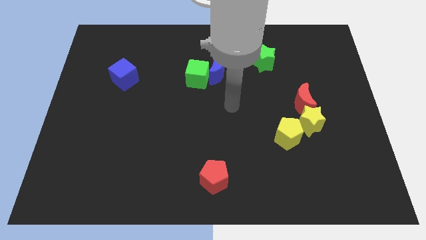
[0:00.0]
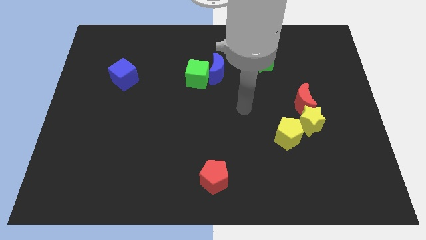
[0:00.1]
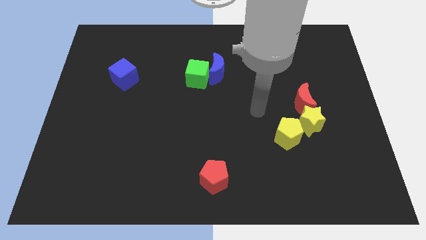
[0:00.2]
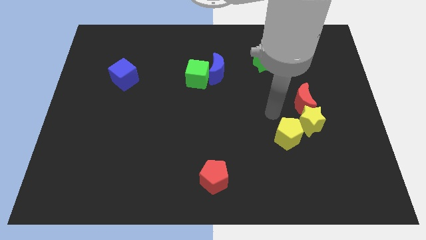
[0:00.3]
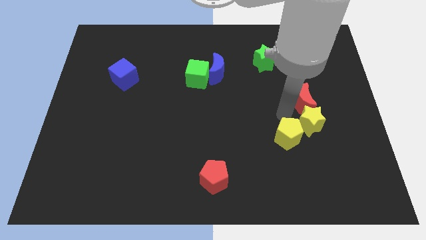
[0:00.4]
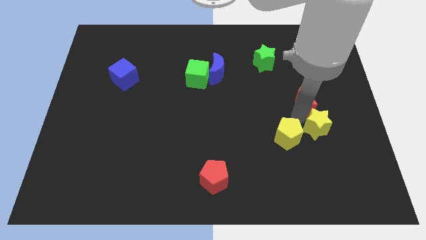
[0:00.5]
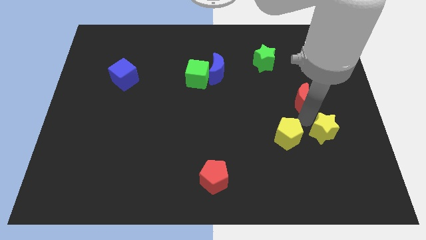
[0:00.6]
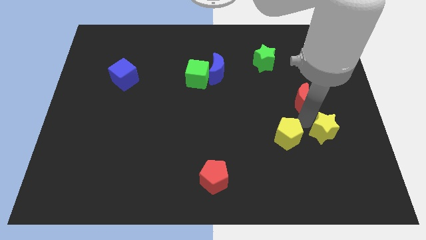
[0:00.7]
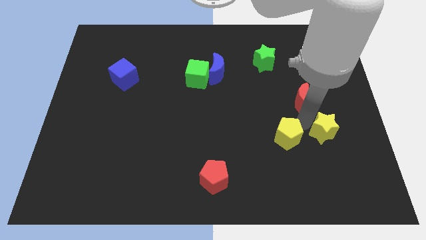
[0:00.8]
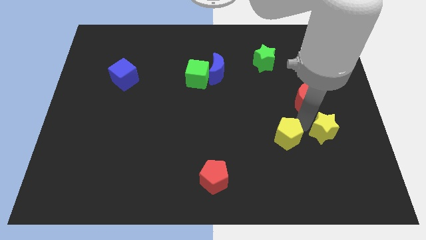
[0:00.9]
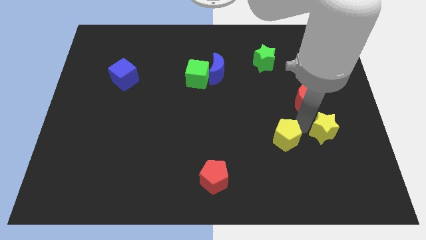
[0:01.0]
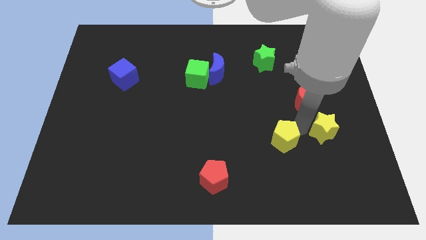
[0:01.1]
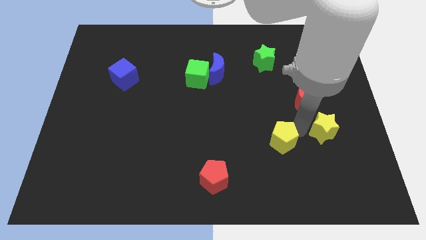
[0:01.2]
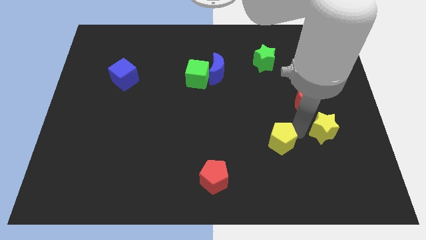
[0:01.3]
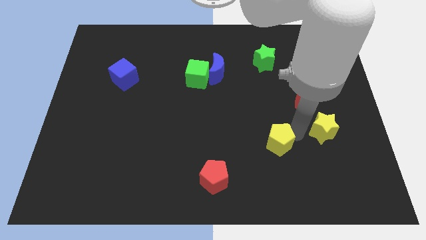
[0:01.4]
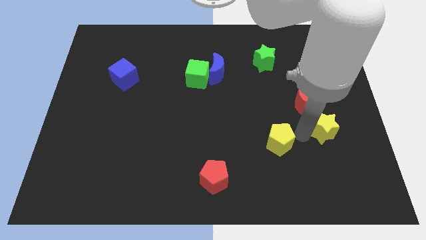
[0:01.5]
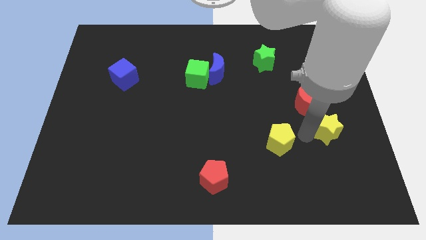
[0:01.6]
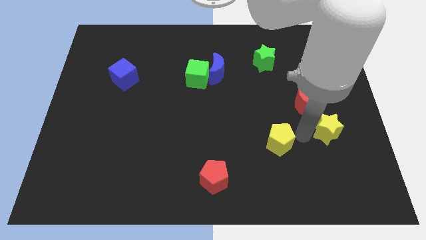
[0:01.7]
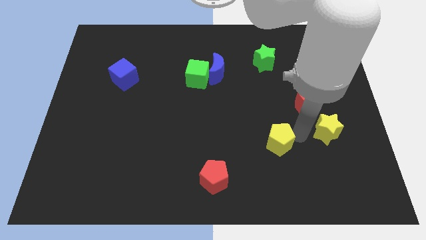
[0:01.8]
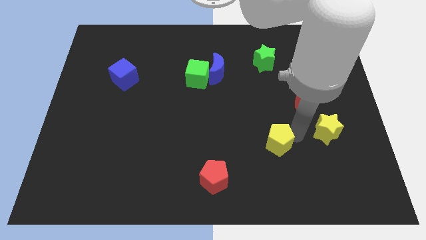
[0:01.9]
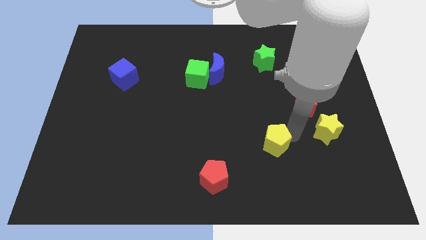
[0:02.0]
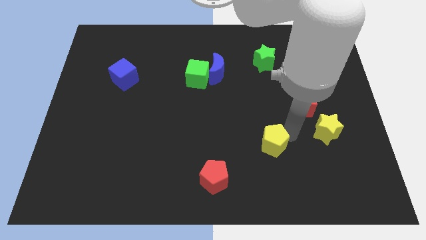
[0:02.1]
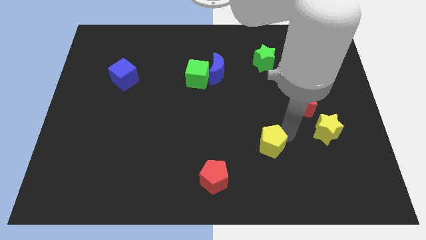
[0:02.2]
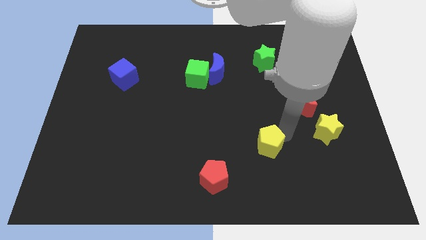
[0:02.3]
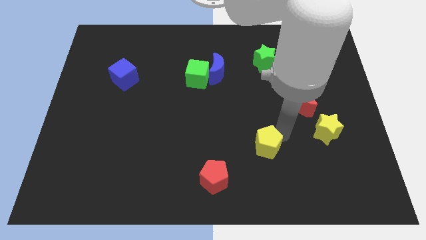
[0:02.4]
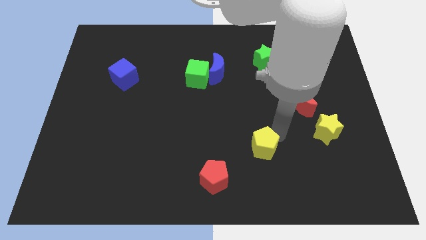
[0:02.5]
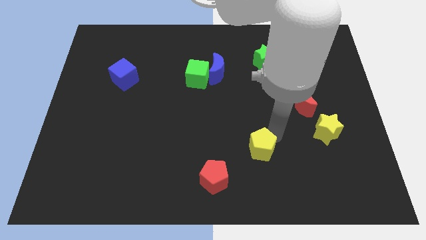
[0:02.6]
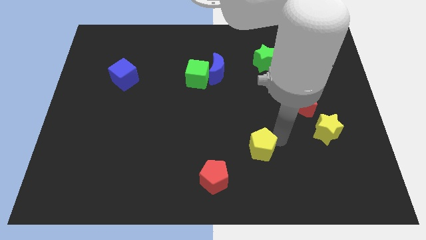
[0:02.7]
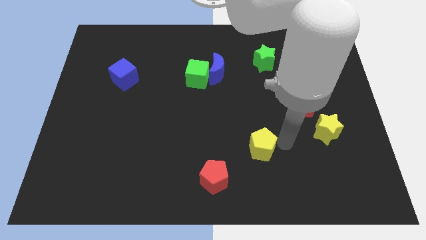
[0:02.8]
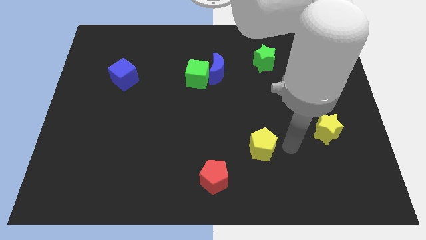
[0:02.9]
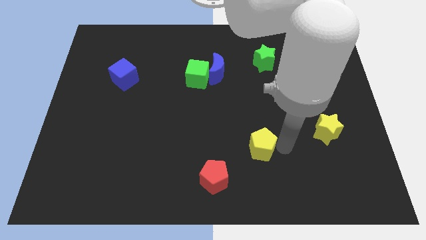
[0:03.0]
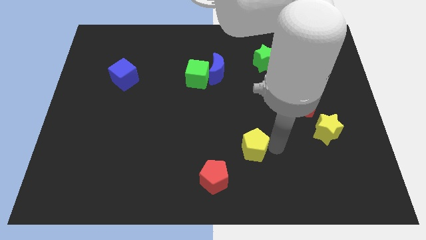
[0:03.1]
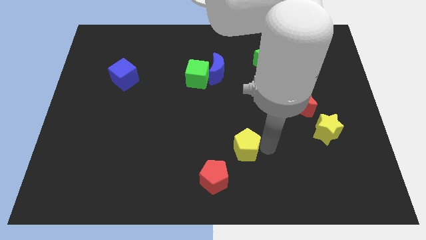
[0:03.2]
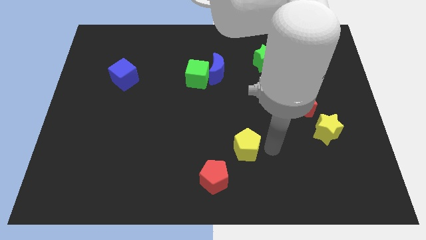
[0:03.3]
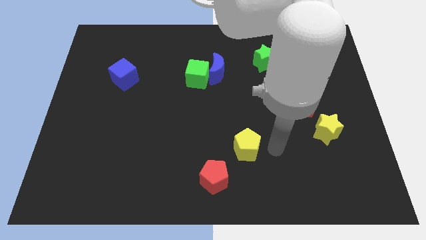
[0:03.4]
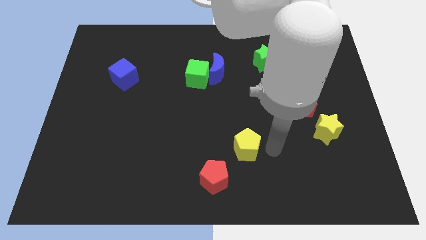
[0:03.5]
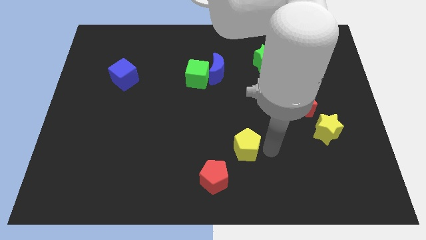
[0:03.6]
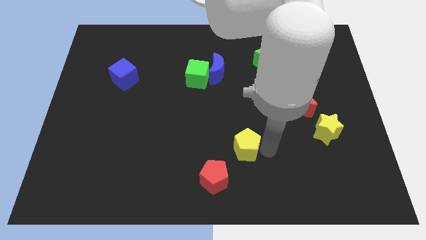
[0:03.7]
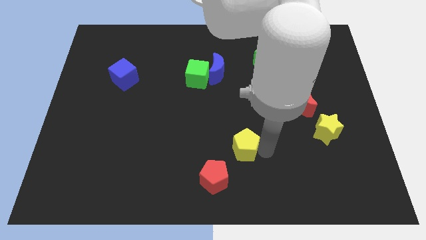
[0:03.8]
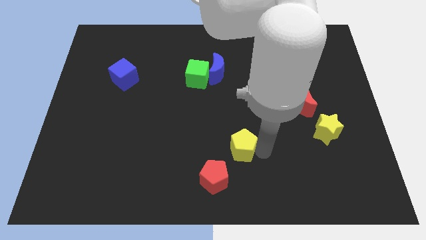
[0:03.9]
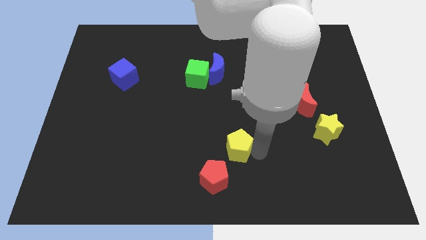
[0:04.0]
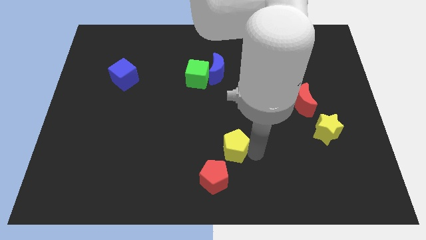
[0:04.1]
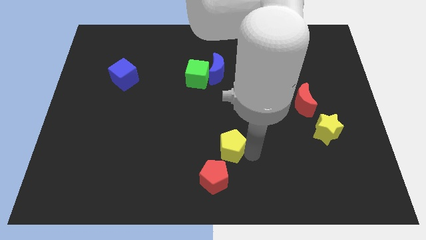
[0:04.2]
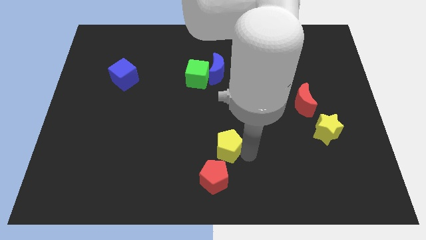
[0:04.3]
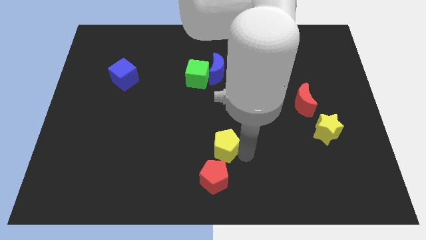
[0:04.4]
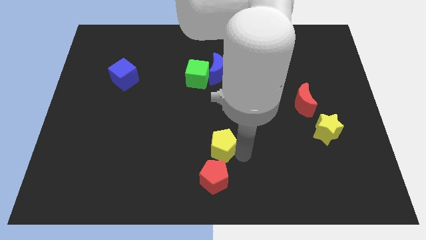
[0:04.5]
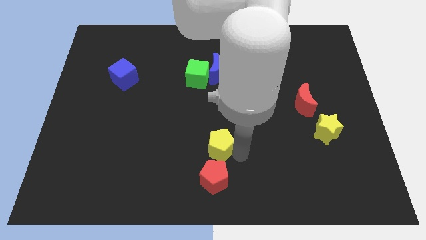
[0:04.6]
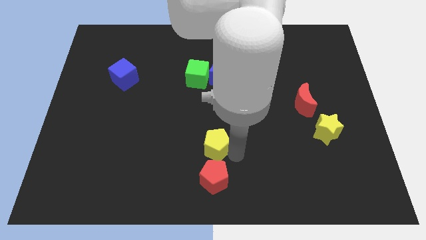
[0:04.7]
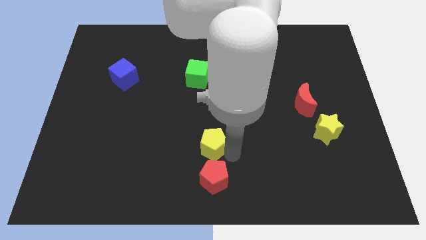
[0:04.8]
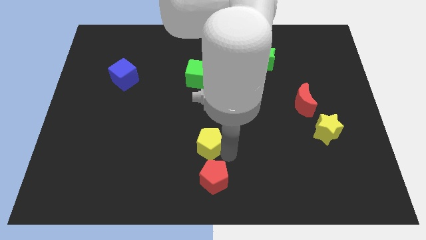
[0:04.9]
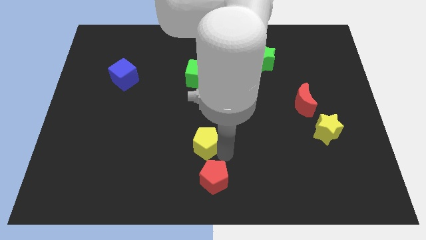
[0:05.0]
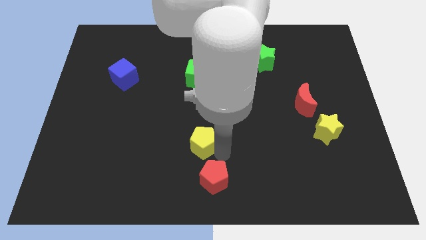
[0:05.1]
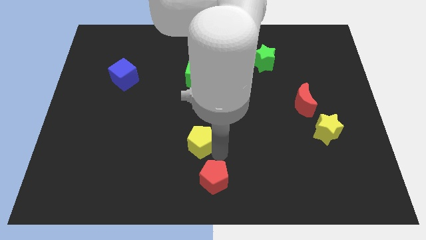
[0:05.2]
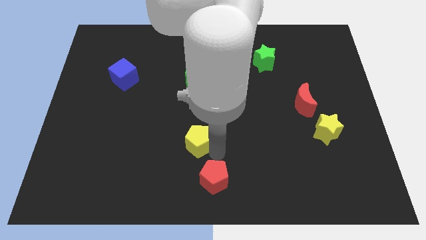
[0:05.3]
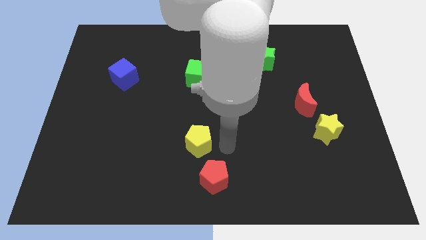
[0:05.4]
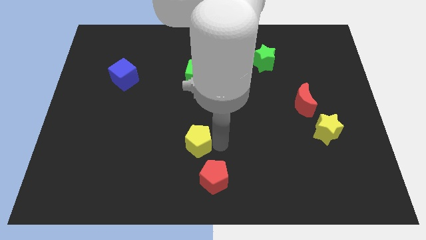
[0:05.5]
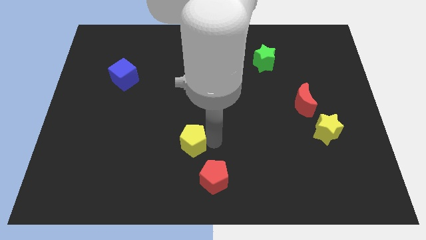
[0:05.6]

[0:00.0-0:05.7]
push the yellow pentagon to the left

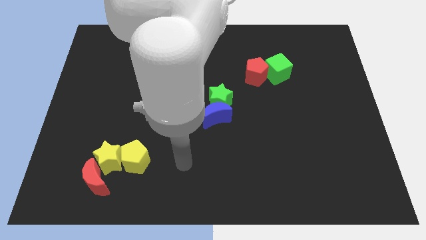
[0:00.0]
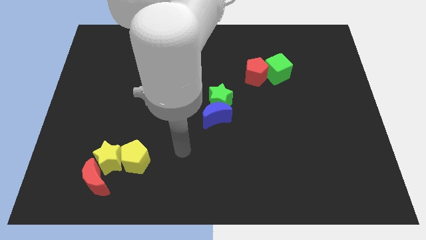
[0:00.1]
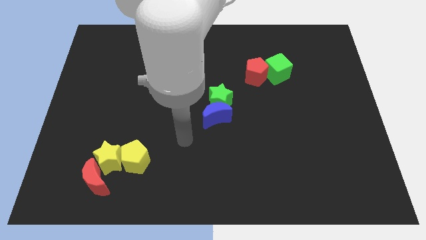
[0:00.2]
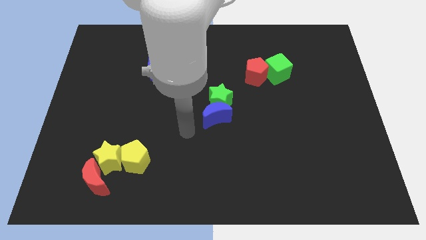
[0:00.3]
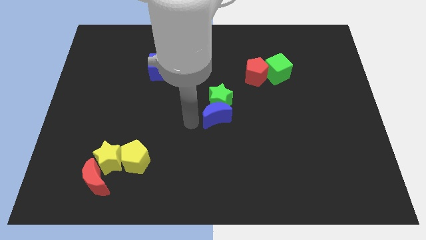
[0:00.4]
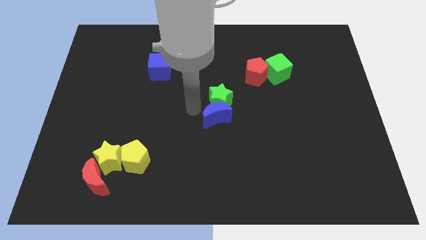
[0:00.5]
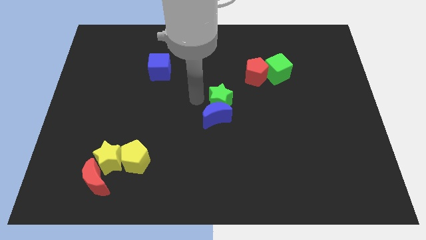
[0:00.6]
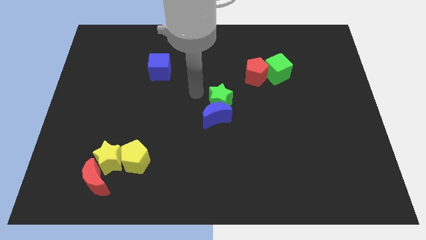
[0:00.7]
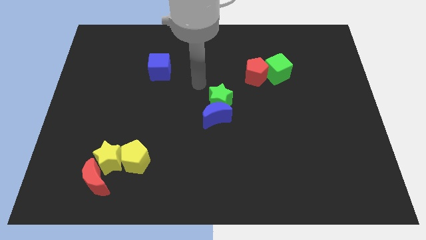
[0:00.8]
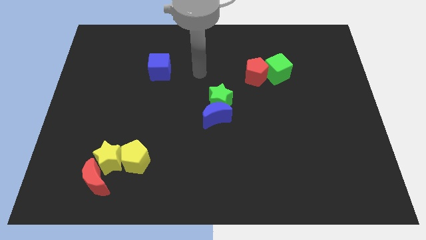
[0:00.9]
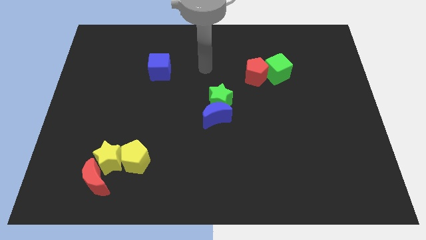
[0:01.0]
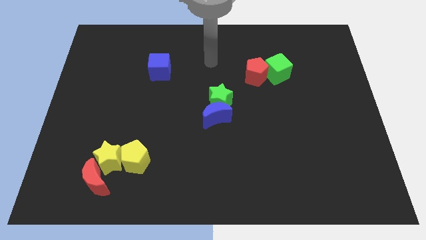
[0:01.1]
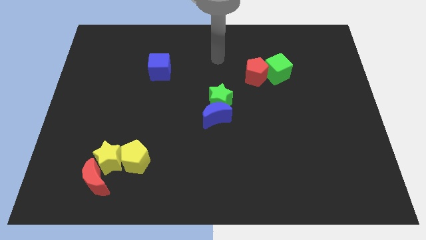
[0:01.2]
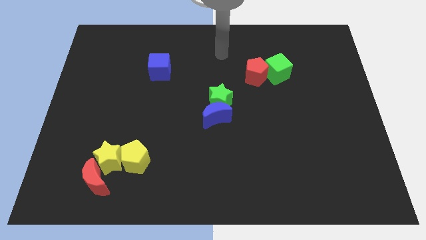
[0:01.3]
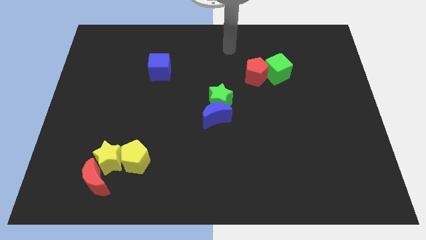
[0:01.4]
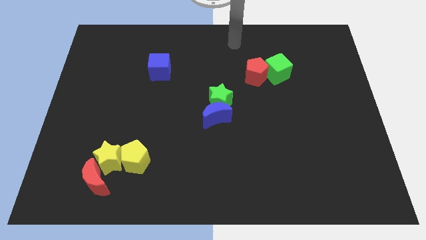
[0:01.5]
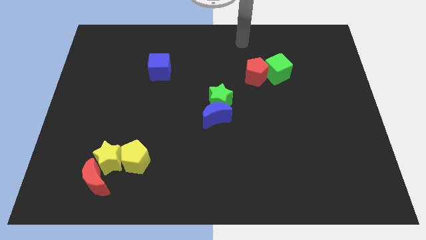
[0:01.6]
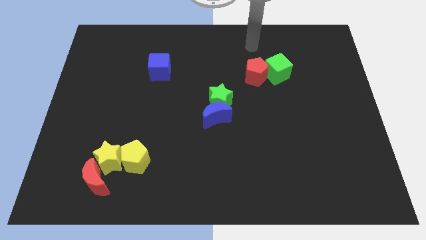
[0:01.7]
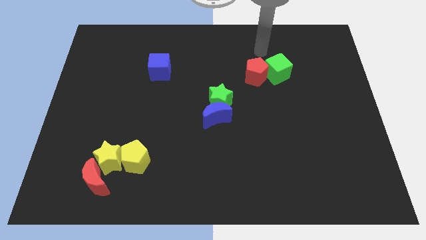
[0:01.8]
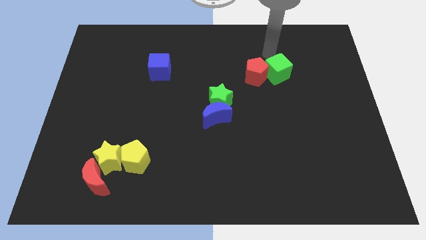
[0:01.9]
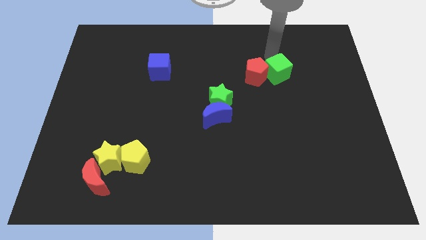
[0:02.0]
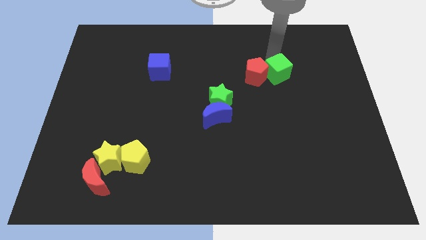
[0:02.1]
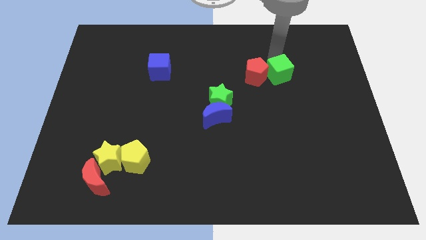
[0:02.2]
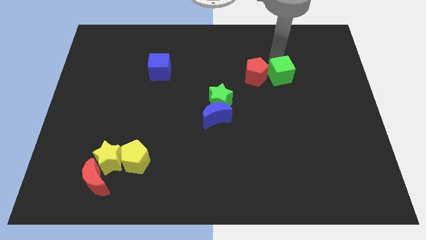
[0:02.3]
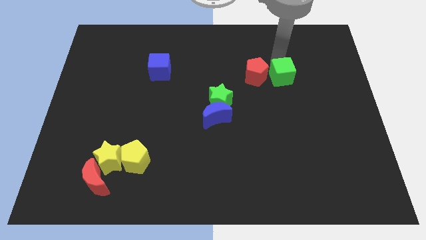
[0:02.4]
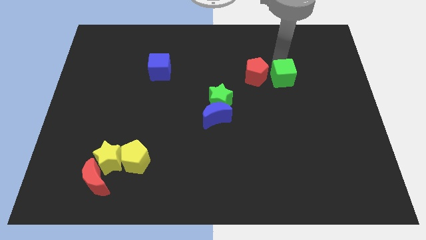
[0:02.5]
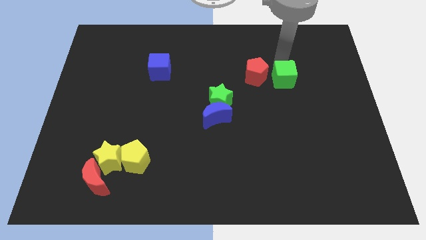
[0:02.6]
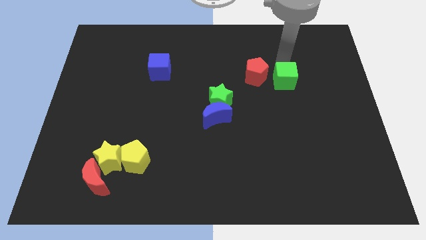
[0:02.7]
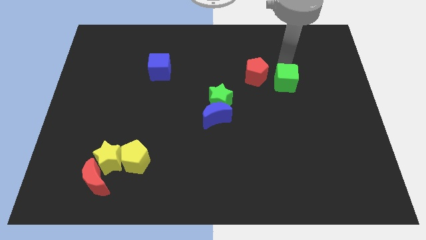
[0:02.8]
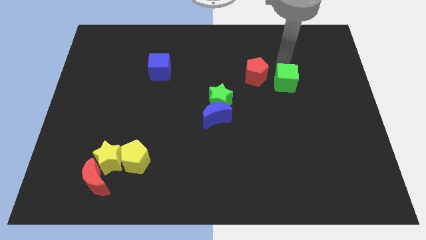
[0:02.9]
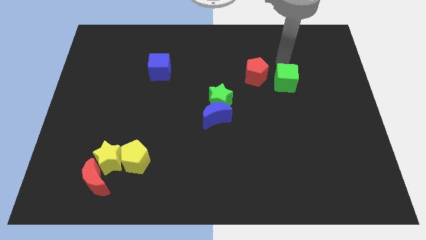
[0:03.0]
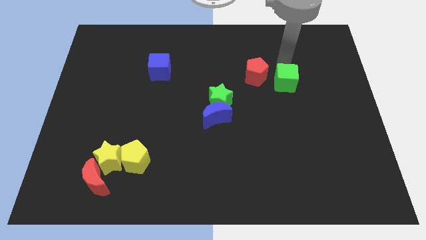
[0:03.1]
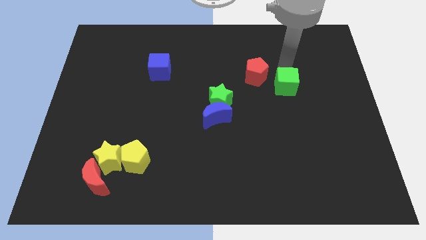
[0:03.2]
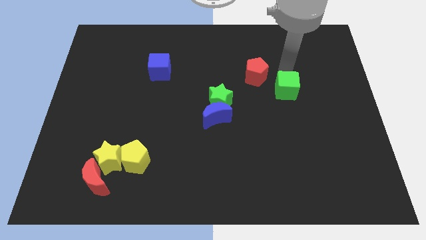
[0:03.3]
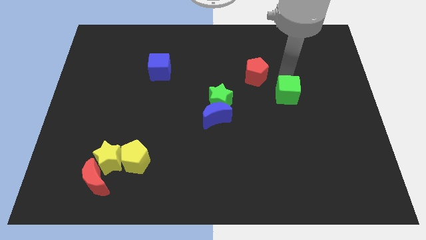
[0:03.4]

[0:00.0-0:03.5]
slightly slide the green cube down
